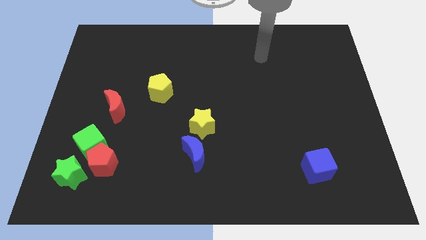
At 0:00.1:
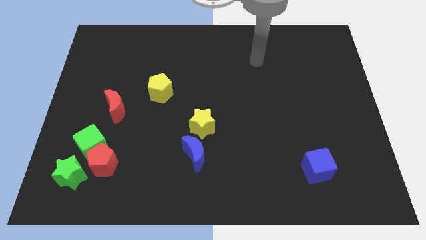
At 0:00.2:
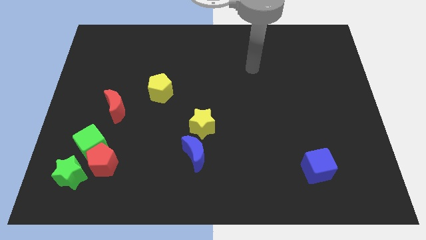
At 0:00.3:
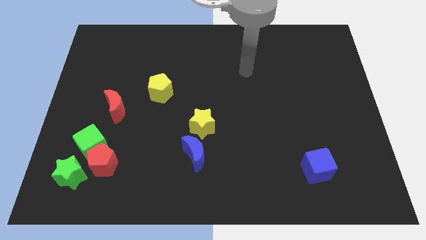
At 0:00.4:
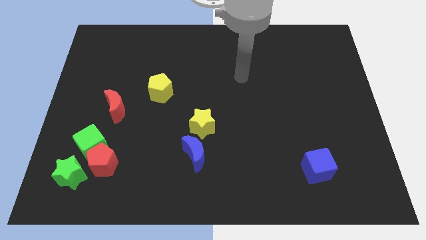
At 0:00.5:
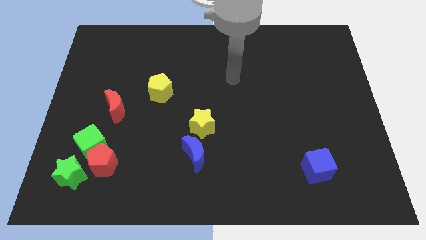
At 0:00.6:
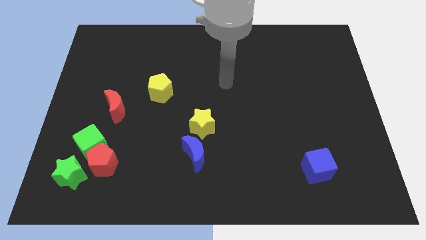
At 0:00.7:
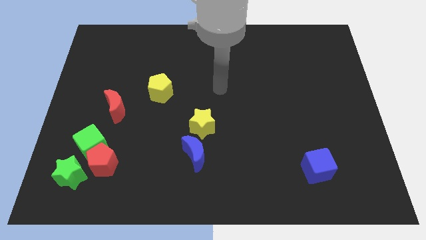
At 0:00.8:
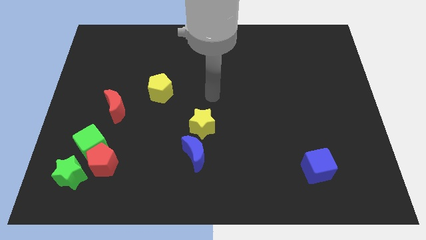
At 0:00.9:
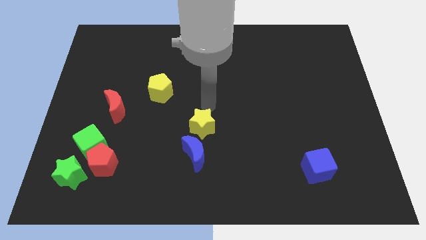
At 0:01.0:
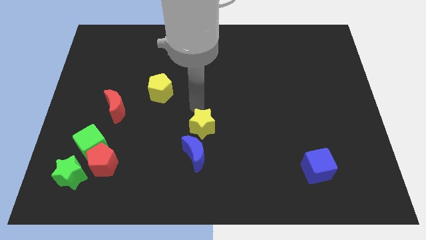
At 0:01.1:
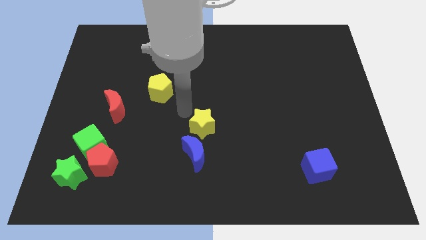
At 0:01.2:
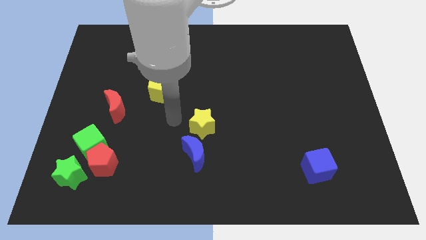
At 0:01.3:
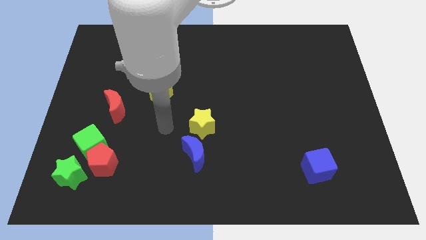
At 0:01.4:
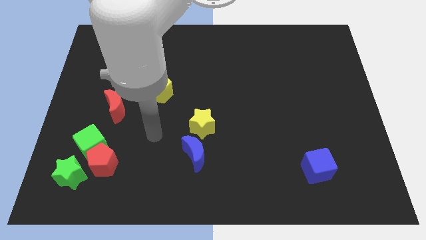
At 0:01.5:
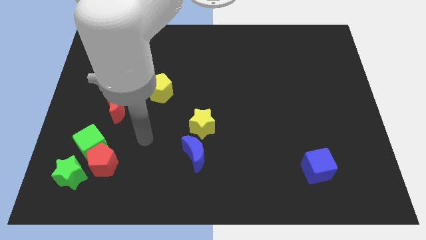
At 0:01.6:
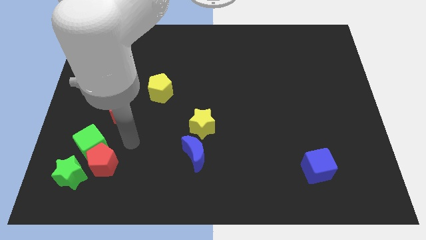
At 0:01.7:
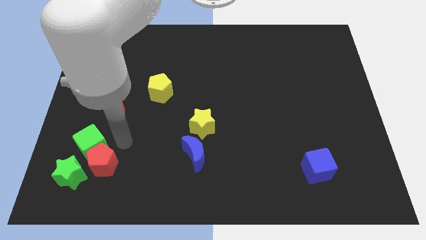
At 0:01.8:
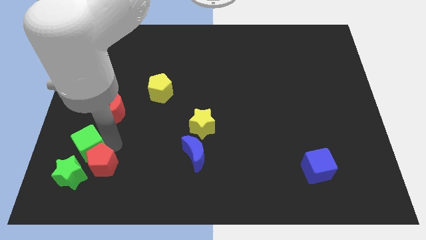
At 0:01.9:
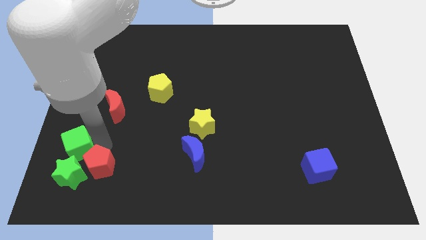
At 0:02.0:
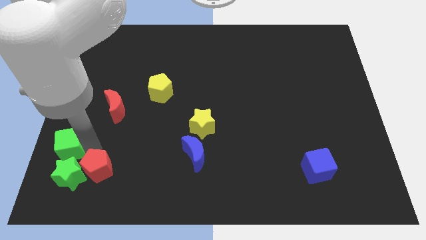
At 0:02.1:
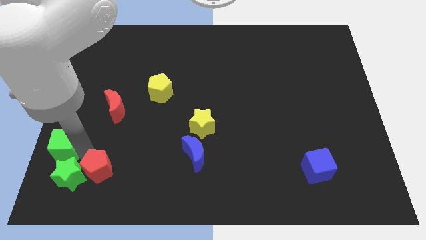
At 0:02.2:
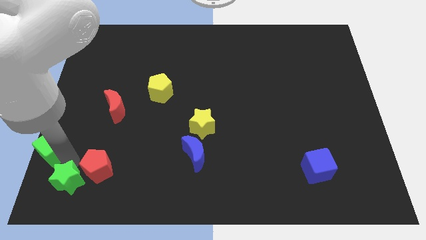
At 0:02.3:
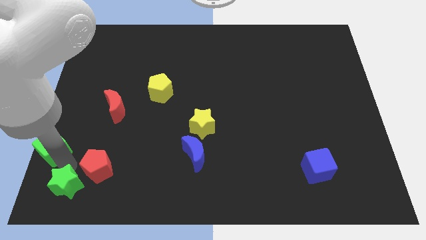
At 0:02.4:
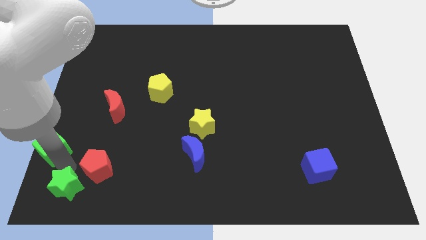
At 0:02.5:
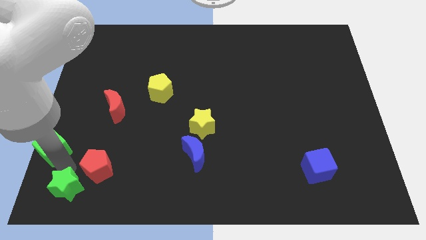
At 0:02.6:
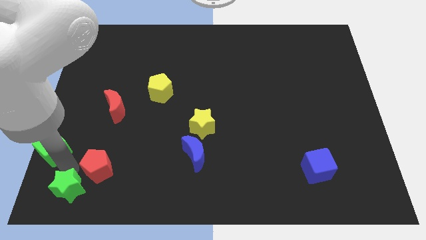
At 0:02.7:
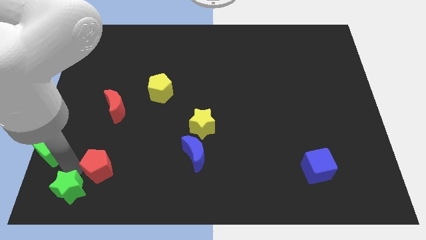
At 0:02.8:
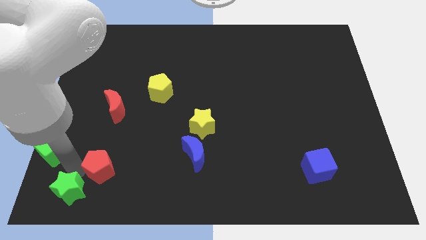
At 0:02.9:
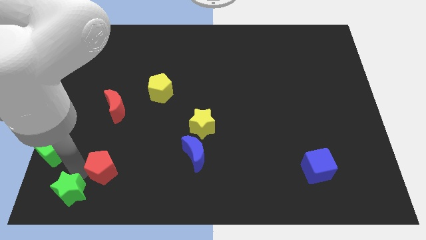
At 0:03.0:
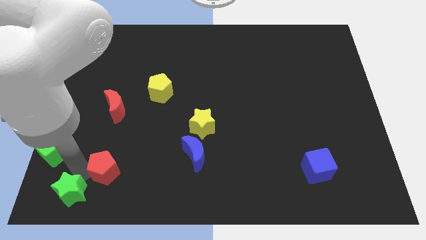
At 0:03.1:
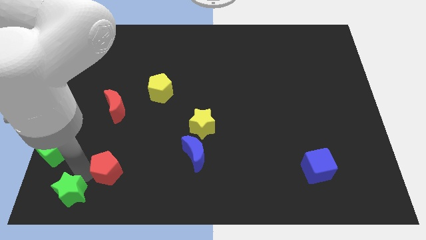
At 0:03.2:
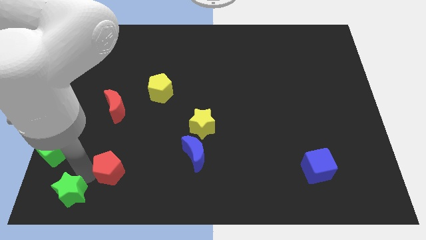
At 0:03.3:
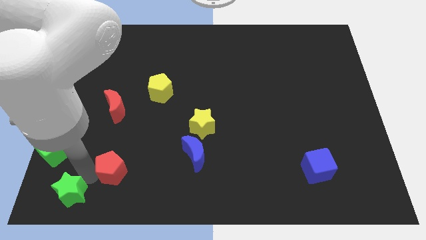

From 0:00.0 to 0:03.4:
pull the red pentagon apart from the green cube and green star

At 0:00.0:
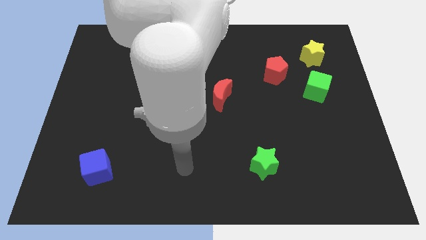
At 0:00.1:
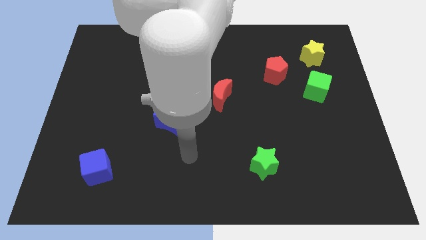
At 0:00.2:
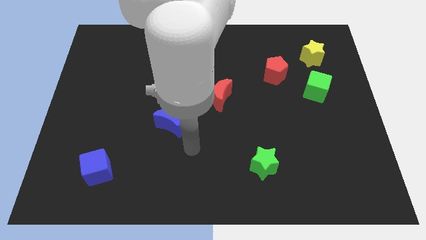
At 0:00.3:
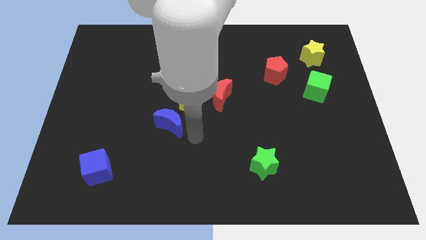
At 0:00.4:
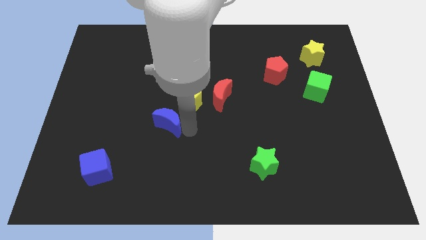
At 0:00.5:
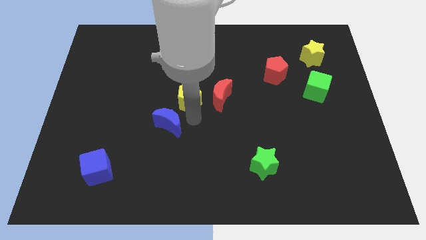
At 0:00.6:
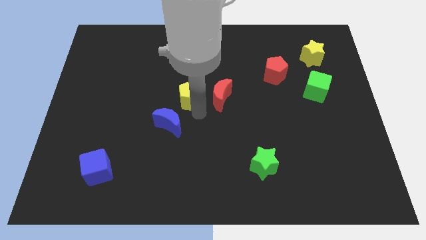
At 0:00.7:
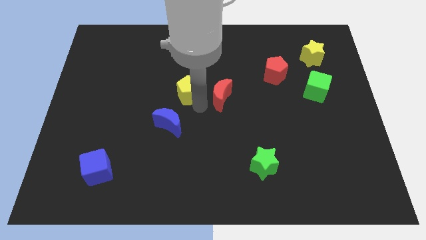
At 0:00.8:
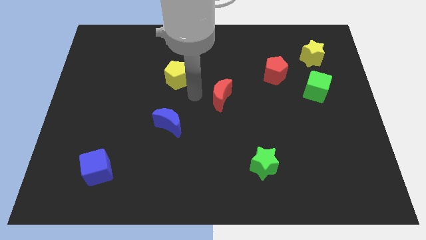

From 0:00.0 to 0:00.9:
pull the red moon apart from the yellow pentagon

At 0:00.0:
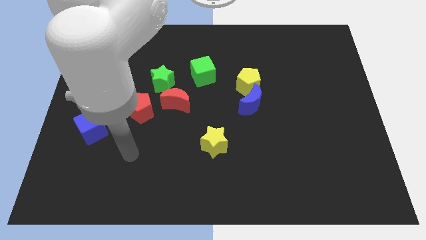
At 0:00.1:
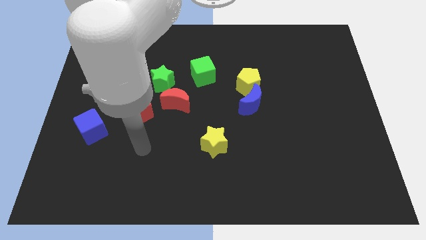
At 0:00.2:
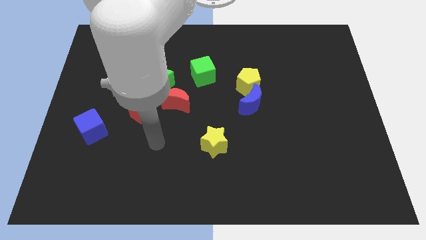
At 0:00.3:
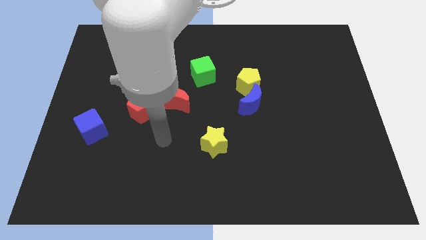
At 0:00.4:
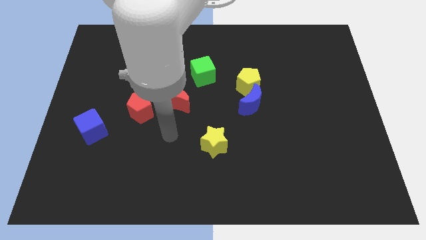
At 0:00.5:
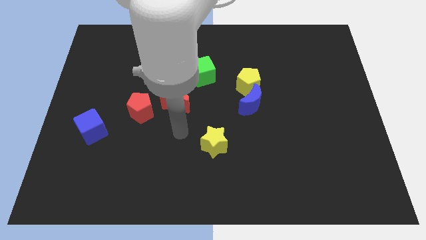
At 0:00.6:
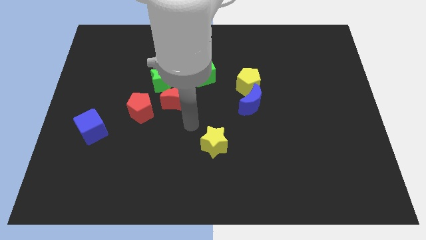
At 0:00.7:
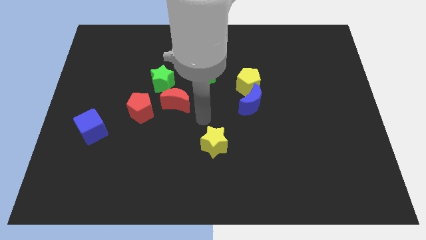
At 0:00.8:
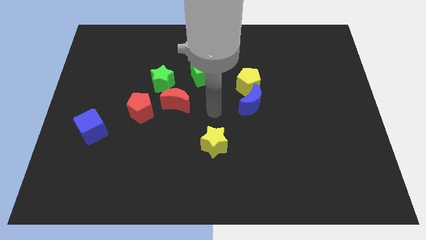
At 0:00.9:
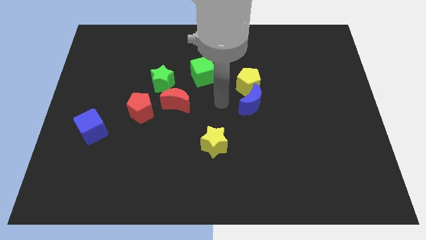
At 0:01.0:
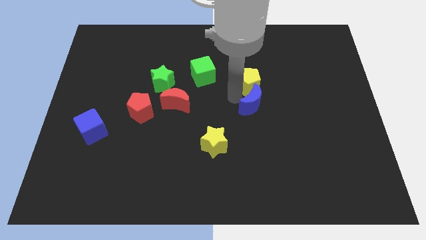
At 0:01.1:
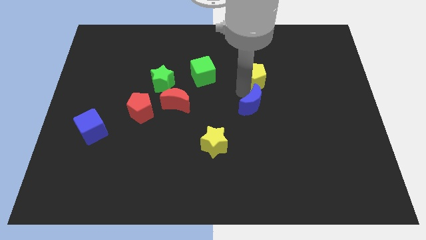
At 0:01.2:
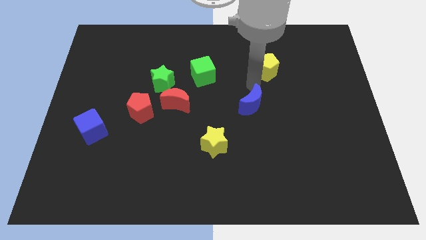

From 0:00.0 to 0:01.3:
pull the blue moon apart from the yellow pentagon

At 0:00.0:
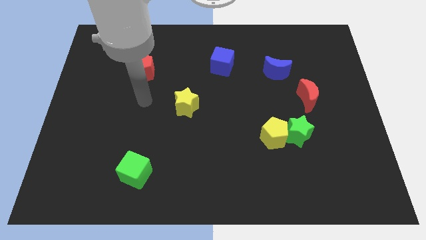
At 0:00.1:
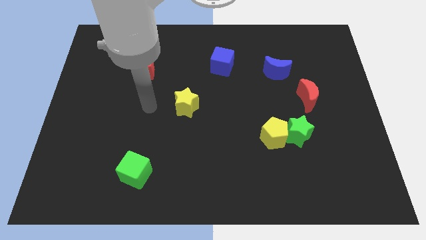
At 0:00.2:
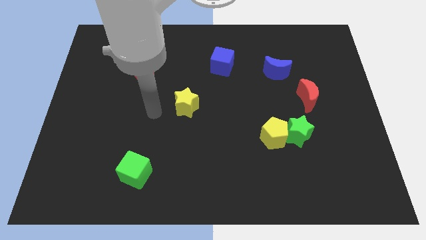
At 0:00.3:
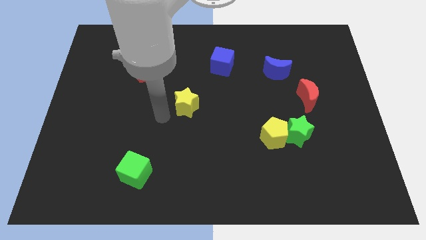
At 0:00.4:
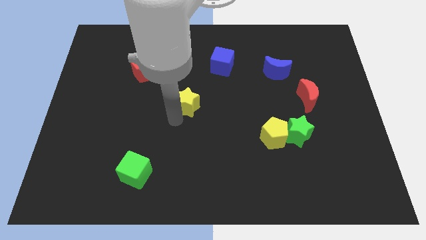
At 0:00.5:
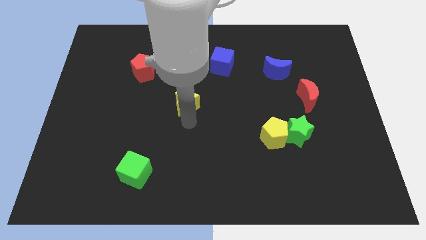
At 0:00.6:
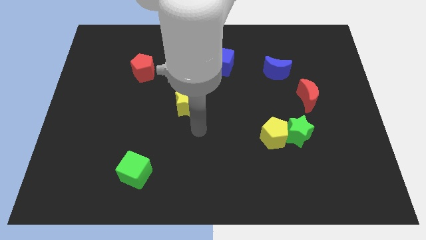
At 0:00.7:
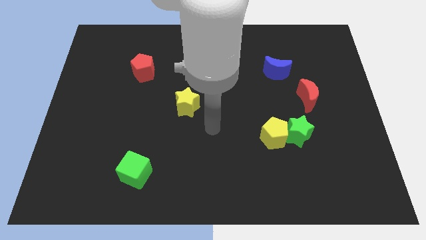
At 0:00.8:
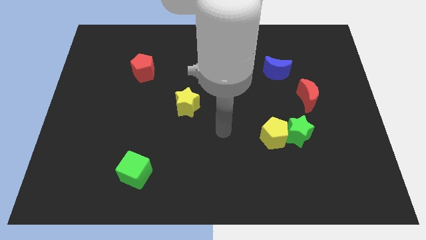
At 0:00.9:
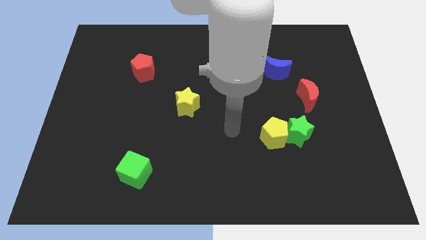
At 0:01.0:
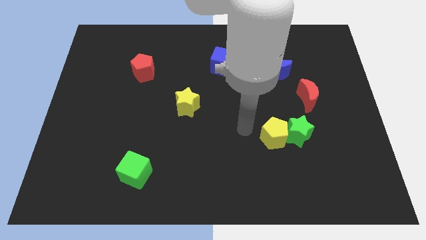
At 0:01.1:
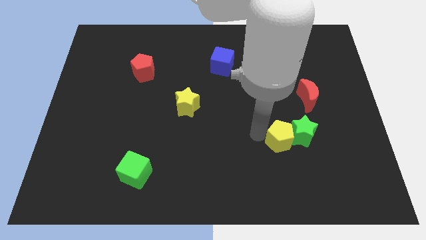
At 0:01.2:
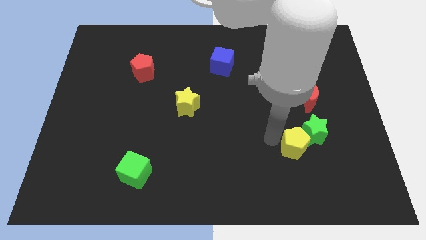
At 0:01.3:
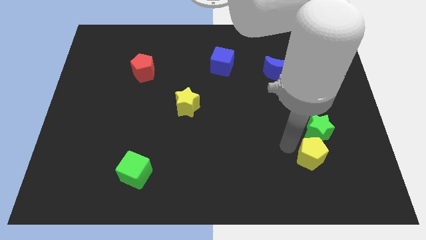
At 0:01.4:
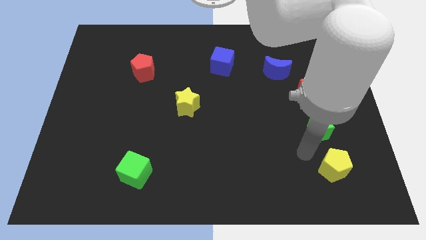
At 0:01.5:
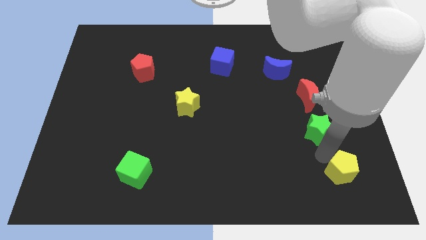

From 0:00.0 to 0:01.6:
pull the green star apart from the yellow pentagon

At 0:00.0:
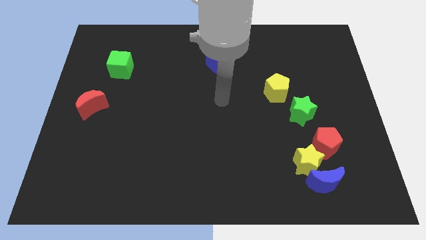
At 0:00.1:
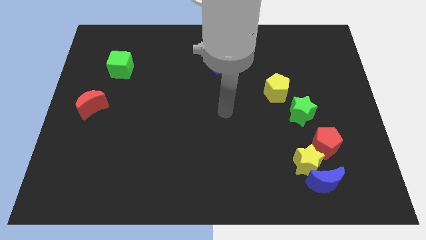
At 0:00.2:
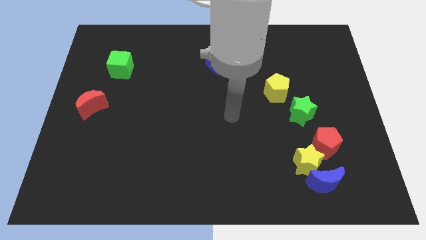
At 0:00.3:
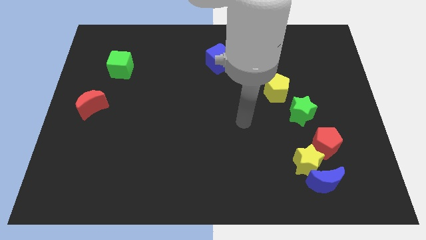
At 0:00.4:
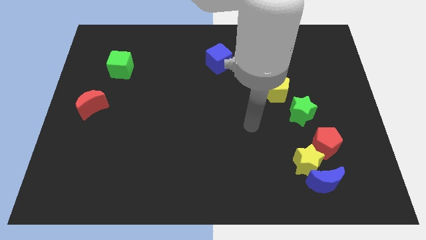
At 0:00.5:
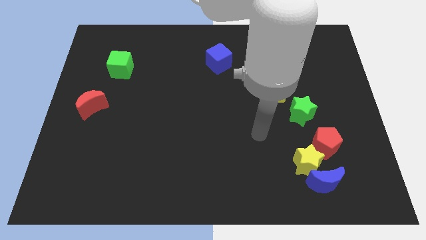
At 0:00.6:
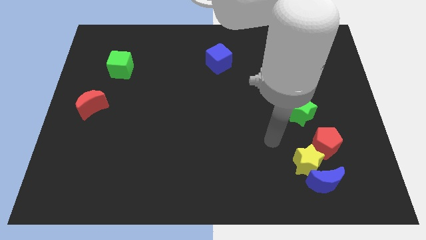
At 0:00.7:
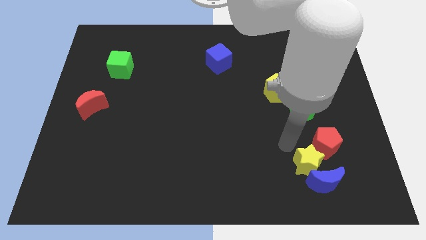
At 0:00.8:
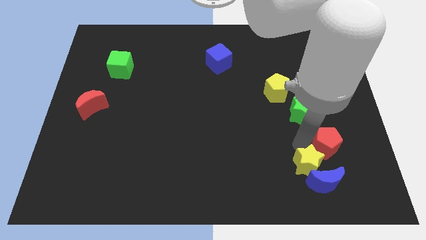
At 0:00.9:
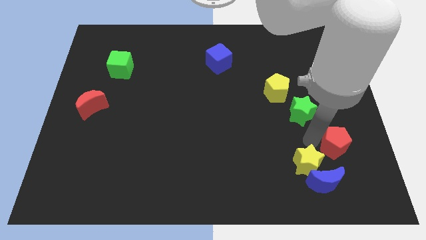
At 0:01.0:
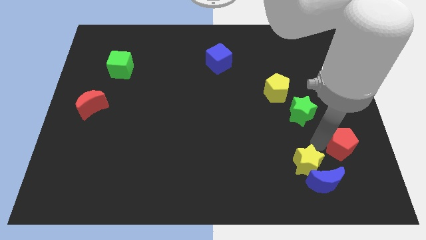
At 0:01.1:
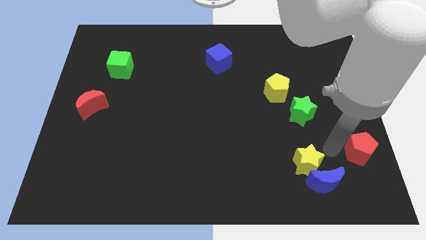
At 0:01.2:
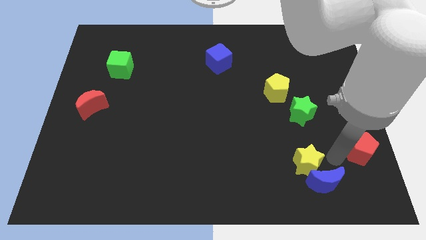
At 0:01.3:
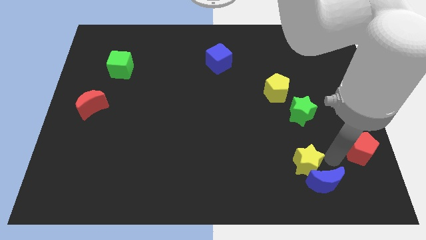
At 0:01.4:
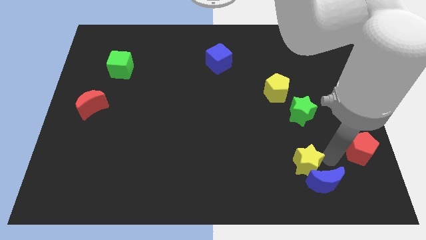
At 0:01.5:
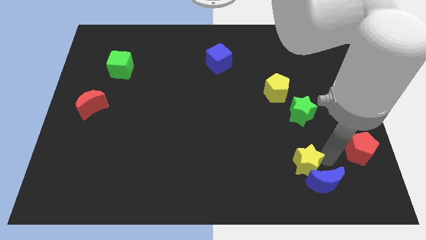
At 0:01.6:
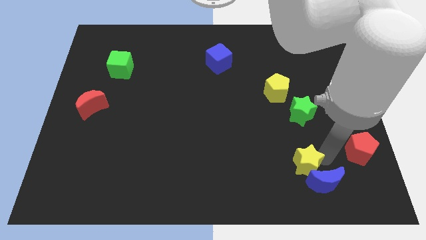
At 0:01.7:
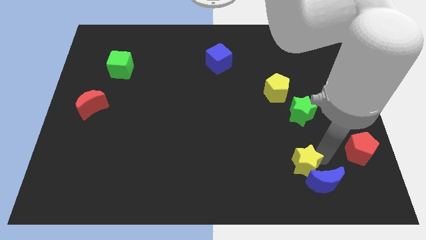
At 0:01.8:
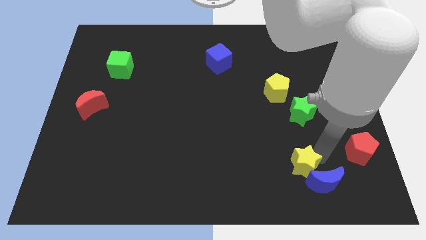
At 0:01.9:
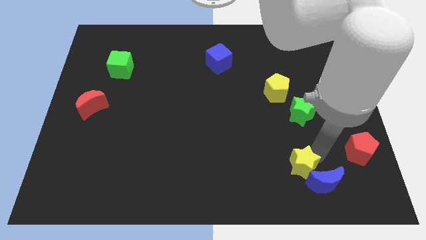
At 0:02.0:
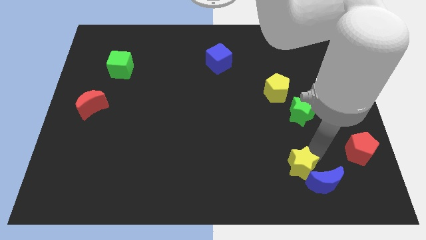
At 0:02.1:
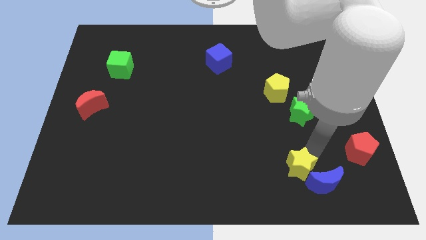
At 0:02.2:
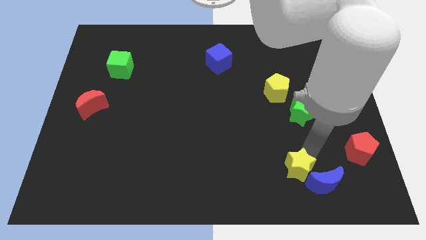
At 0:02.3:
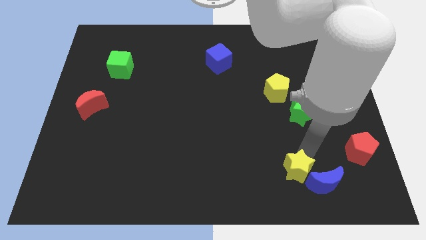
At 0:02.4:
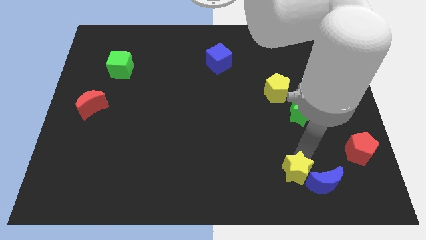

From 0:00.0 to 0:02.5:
move the yellow star away from the blue moon and red pentagon
